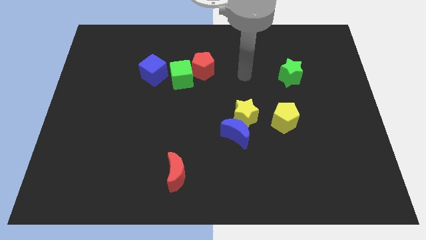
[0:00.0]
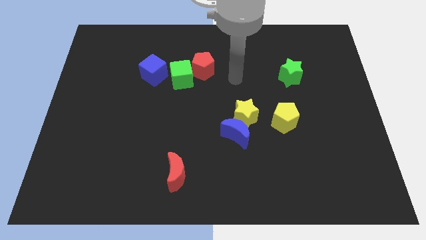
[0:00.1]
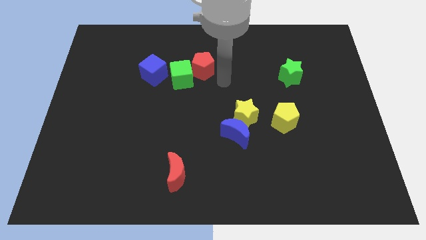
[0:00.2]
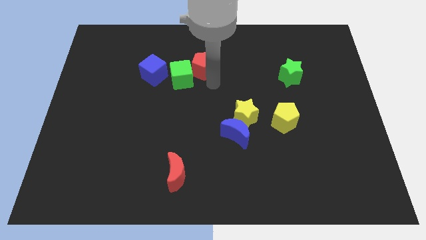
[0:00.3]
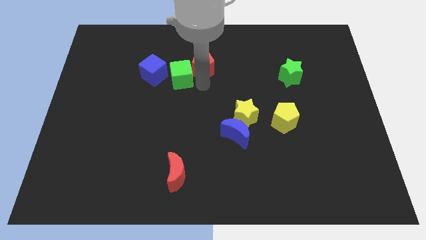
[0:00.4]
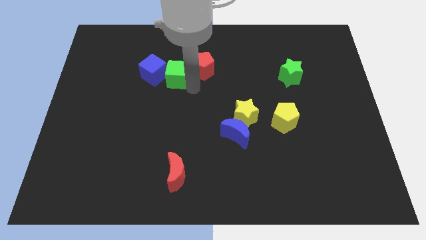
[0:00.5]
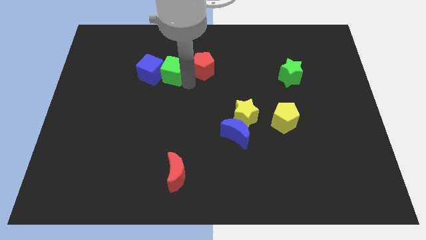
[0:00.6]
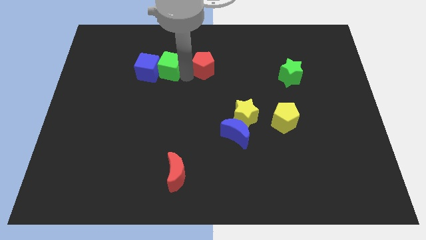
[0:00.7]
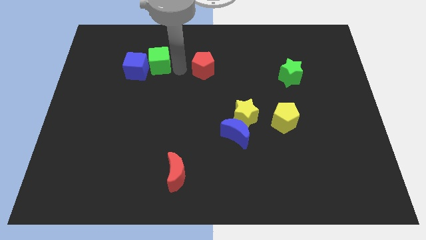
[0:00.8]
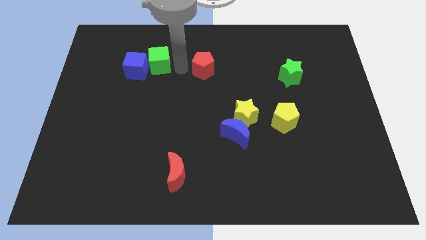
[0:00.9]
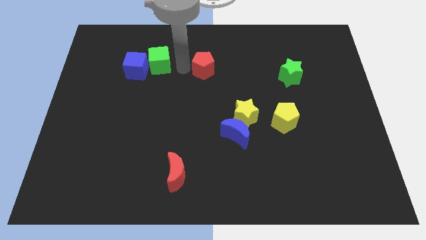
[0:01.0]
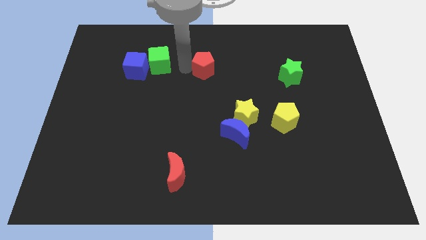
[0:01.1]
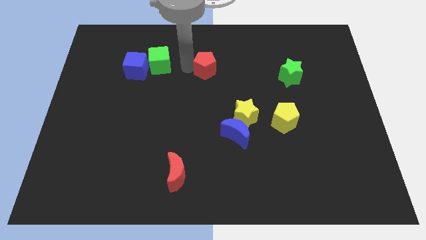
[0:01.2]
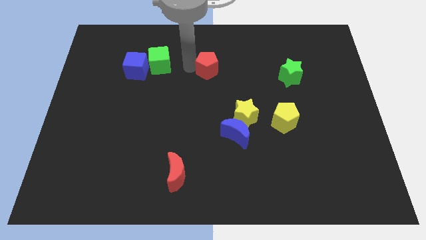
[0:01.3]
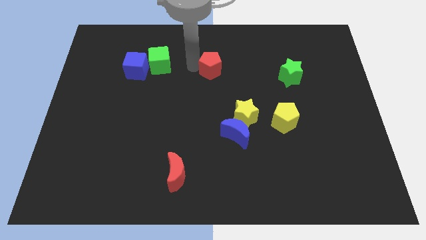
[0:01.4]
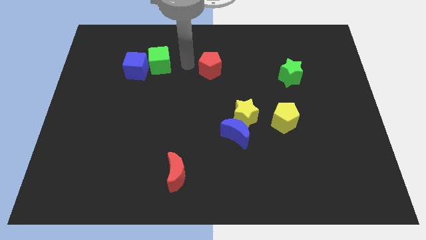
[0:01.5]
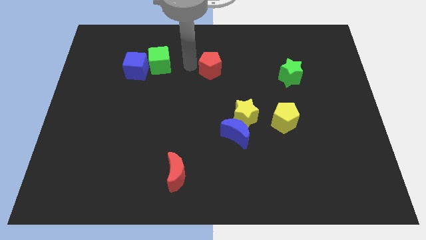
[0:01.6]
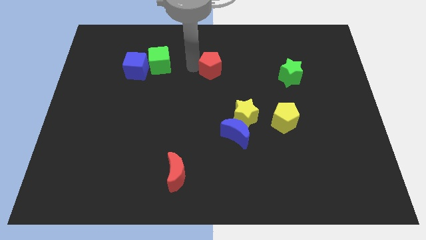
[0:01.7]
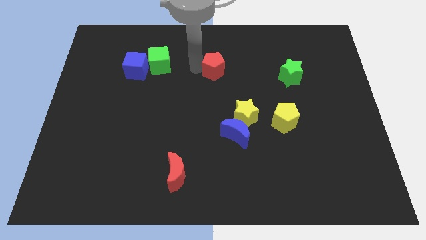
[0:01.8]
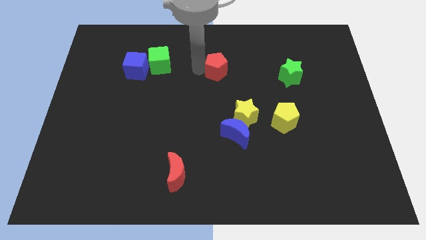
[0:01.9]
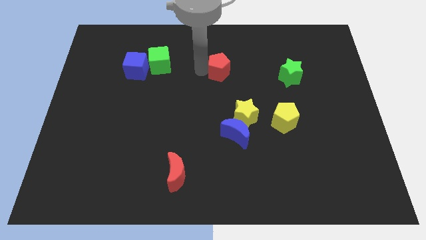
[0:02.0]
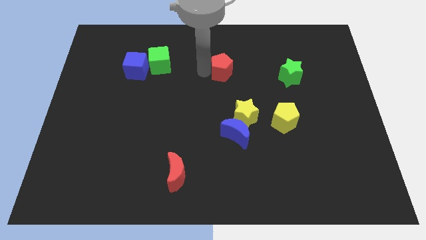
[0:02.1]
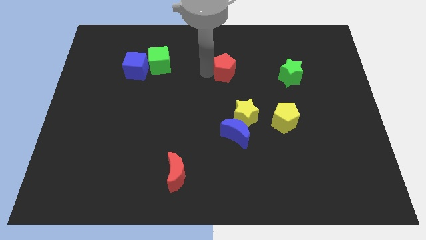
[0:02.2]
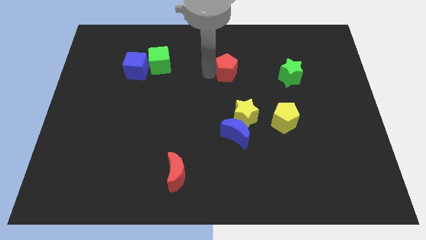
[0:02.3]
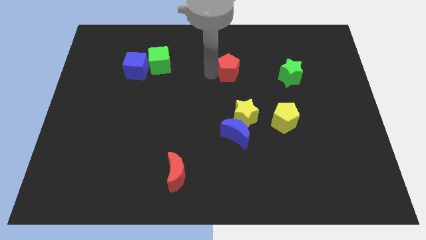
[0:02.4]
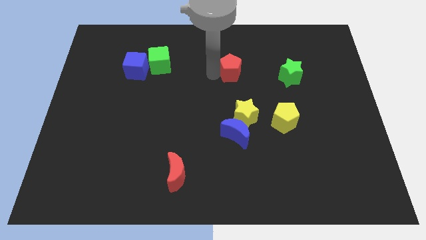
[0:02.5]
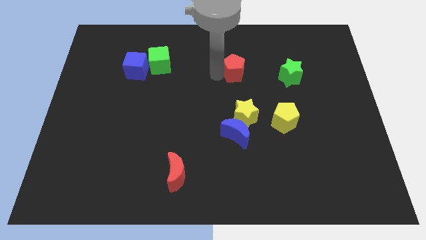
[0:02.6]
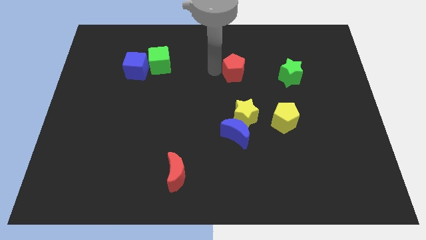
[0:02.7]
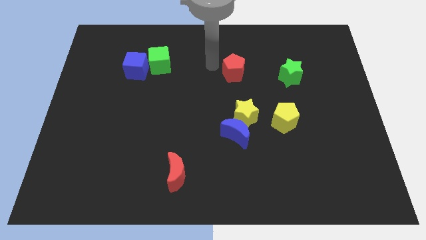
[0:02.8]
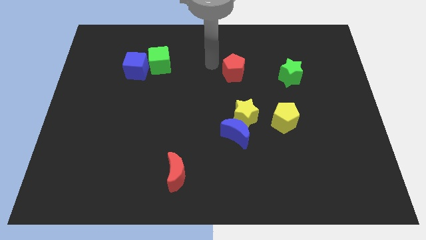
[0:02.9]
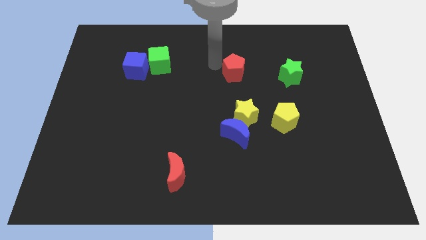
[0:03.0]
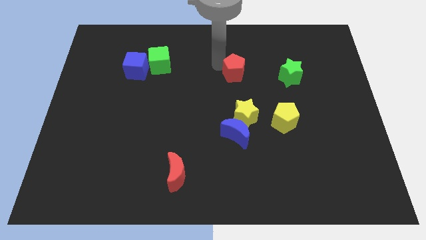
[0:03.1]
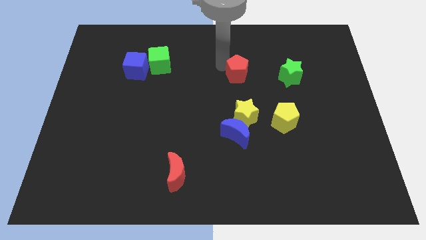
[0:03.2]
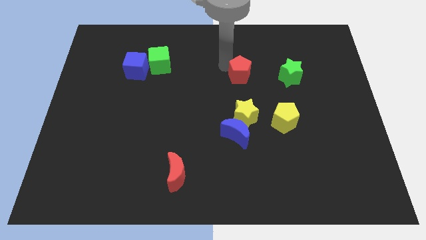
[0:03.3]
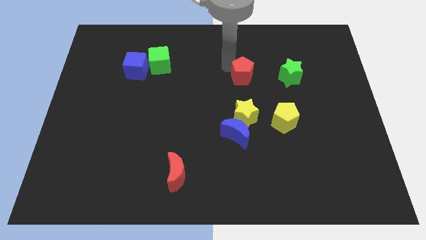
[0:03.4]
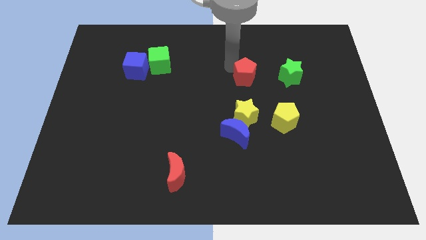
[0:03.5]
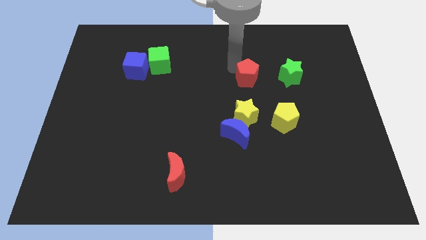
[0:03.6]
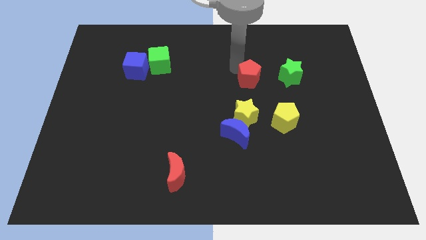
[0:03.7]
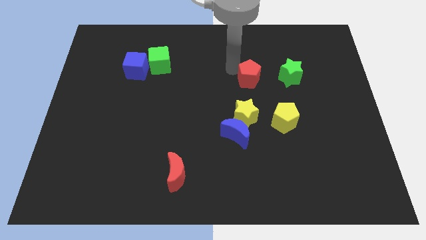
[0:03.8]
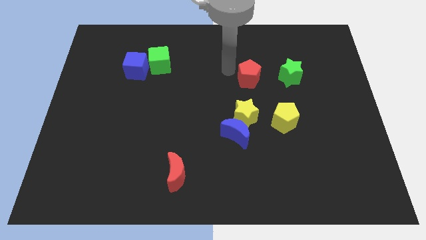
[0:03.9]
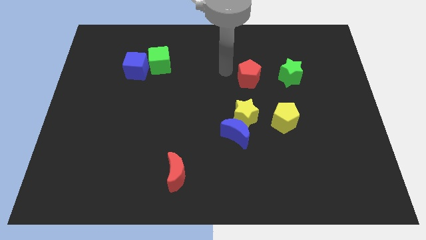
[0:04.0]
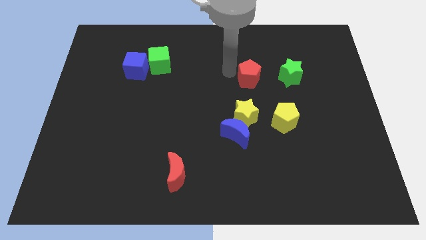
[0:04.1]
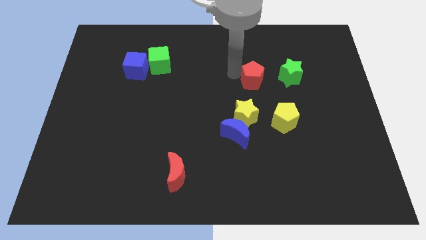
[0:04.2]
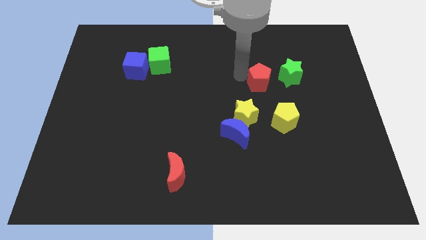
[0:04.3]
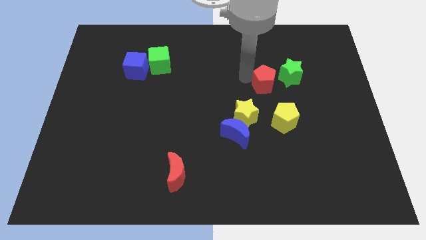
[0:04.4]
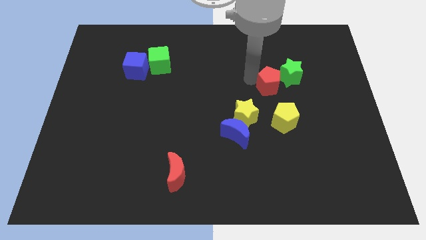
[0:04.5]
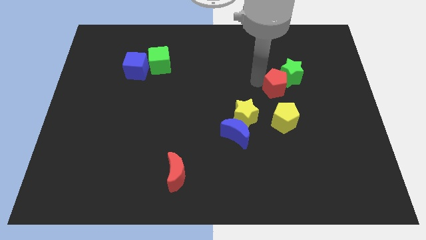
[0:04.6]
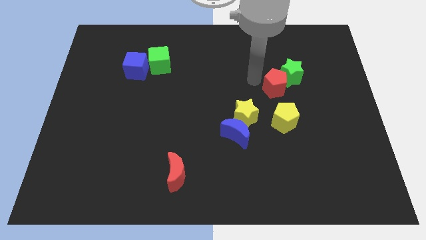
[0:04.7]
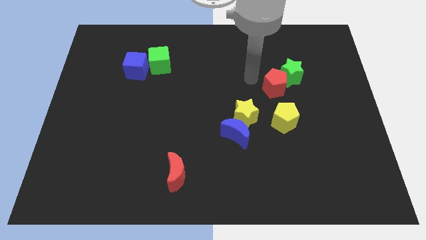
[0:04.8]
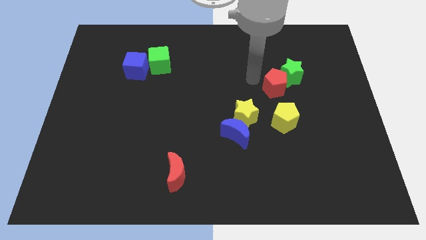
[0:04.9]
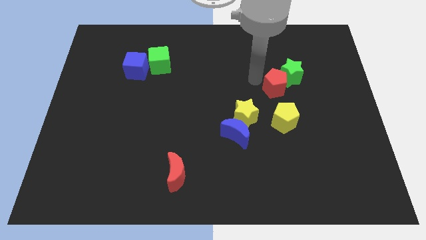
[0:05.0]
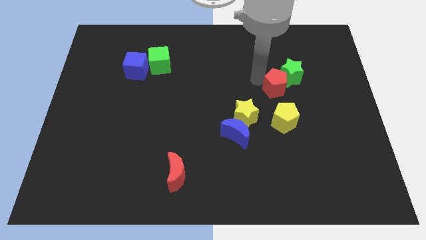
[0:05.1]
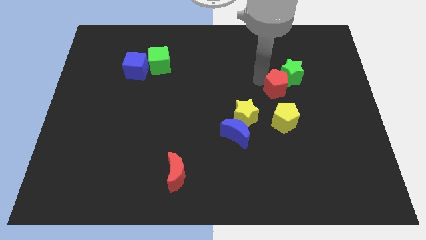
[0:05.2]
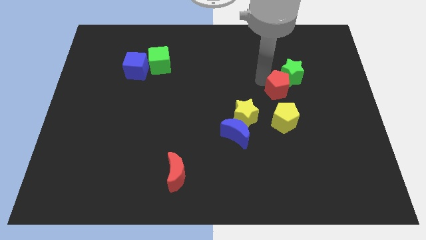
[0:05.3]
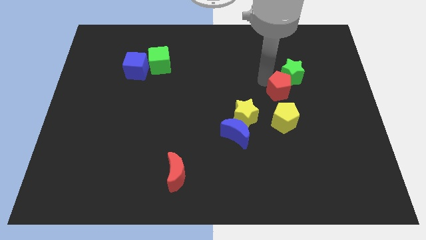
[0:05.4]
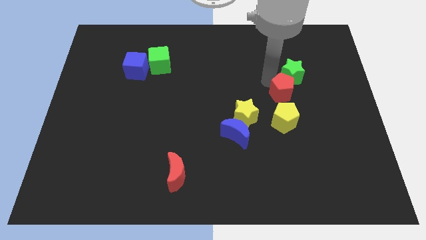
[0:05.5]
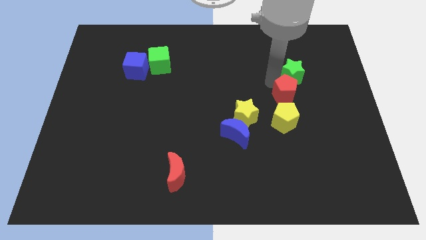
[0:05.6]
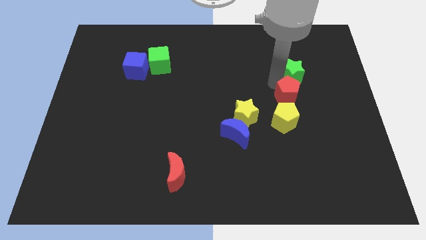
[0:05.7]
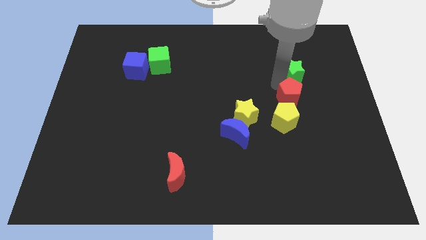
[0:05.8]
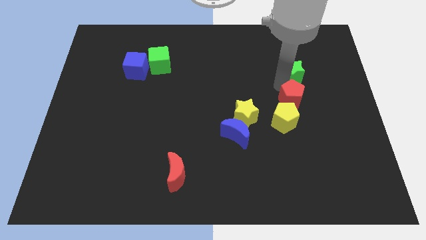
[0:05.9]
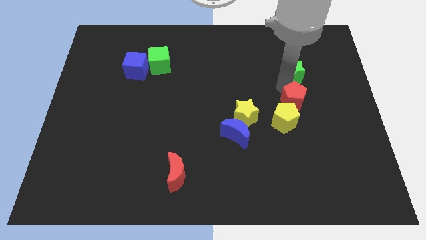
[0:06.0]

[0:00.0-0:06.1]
push the red pentagon down and to the right

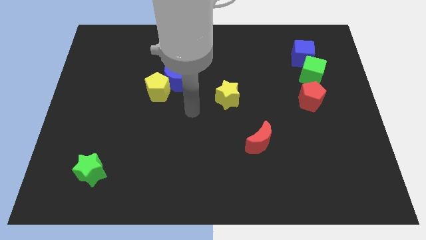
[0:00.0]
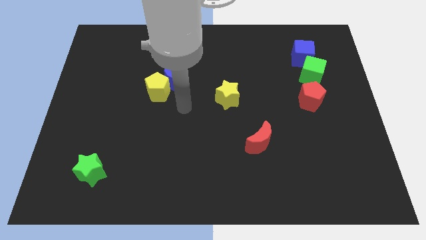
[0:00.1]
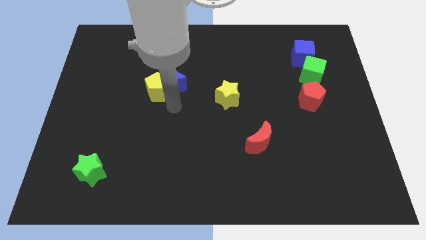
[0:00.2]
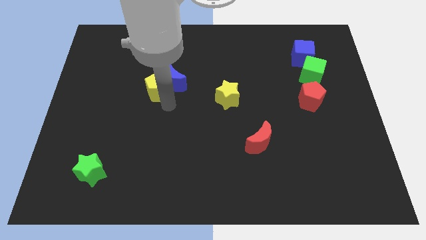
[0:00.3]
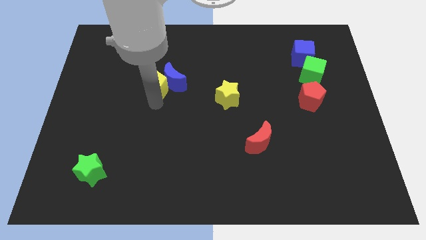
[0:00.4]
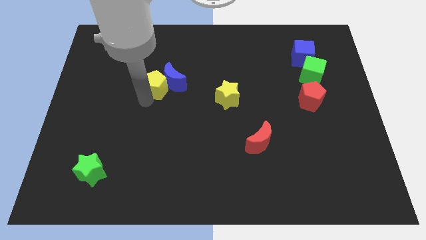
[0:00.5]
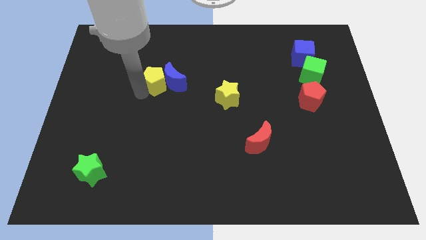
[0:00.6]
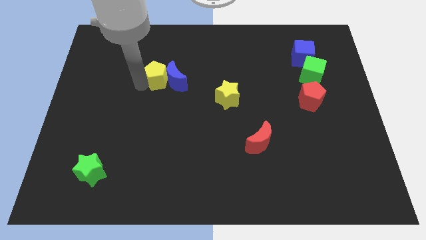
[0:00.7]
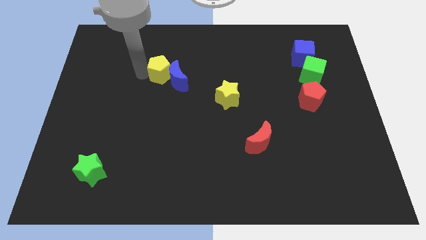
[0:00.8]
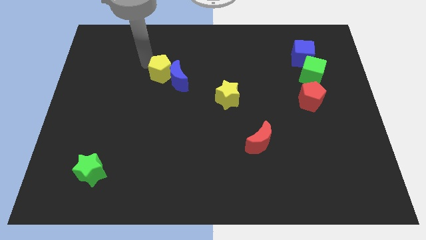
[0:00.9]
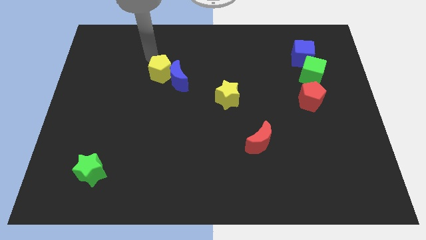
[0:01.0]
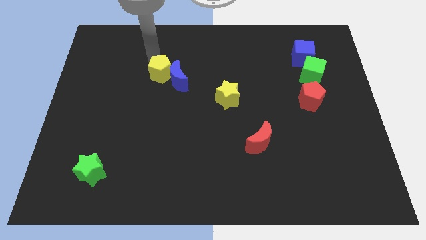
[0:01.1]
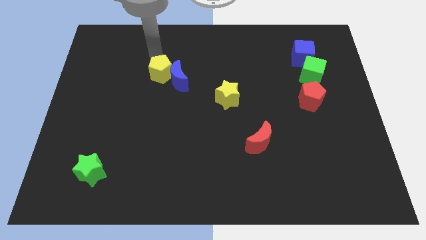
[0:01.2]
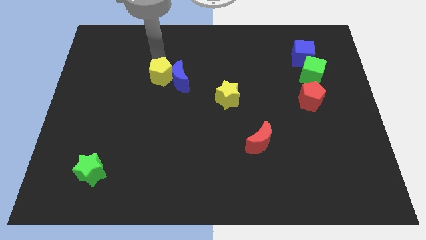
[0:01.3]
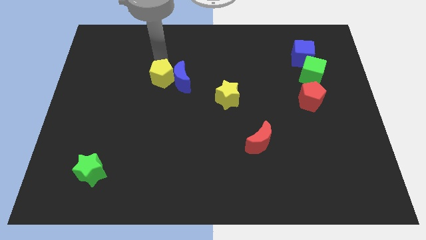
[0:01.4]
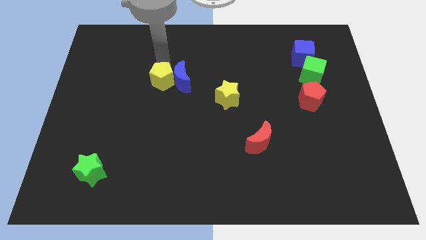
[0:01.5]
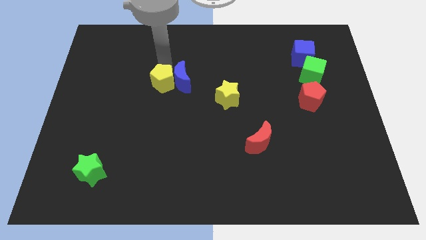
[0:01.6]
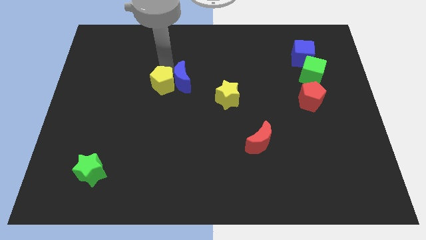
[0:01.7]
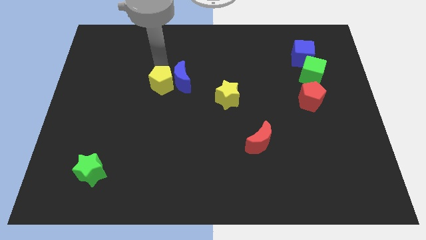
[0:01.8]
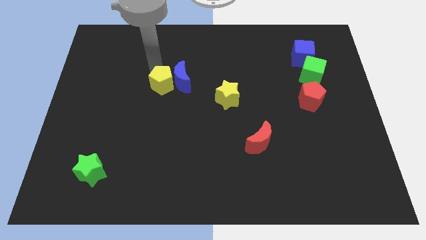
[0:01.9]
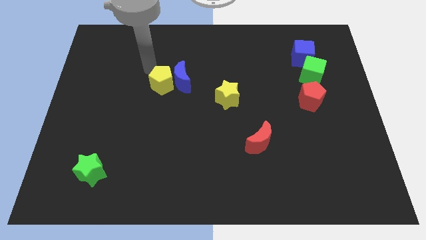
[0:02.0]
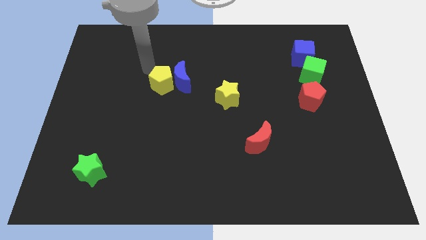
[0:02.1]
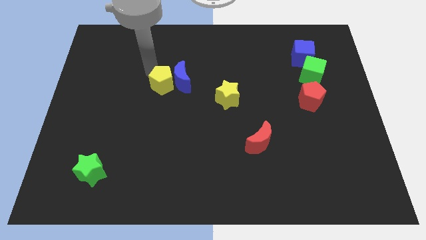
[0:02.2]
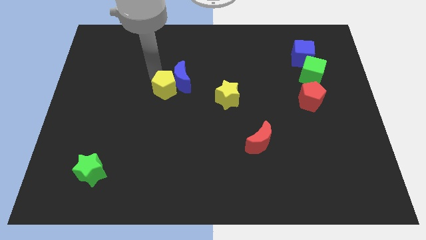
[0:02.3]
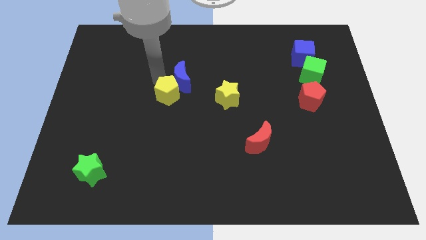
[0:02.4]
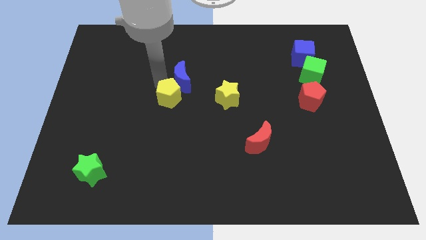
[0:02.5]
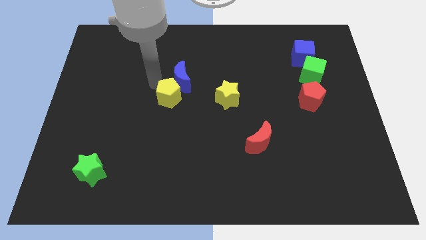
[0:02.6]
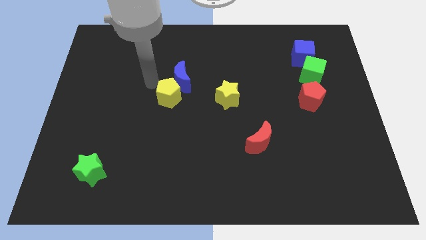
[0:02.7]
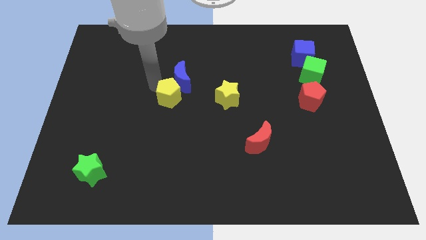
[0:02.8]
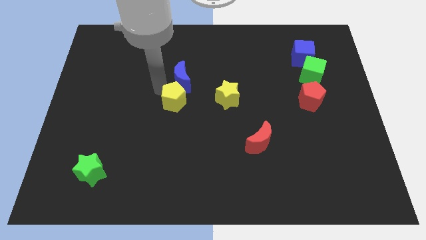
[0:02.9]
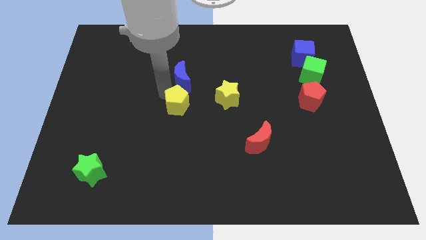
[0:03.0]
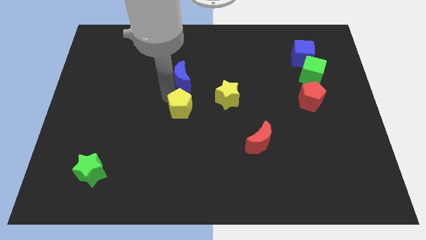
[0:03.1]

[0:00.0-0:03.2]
slightly slide the yellow pentagon diagonally downwards and right
